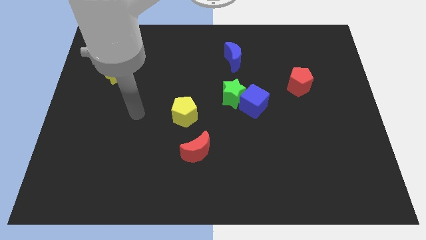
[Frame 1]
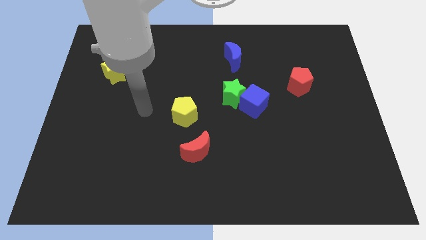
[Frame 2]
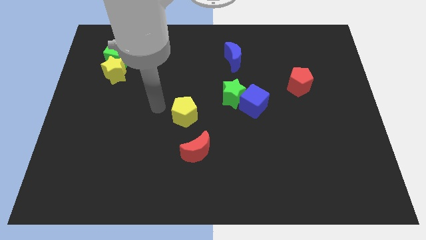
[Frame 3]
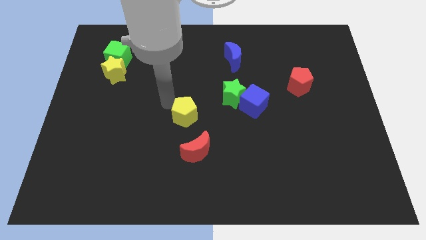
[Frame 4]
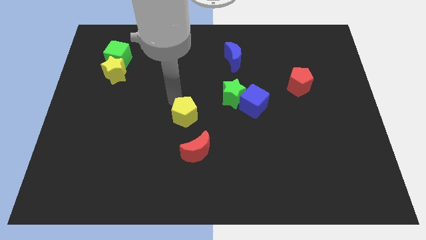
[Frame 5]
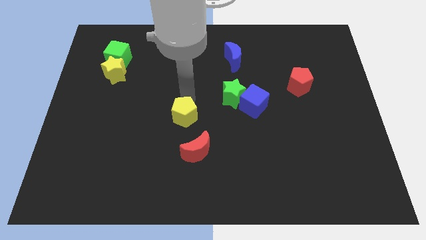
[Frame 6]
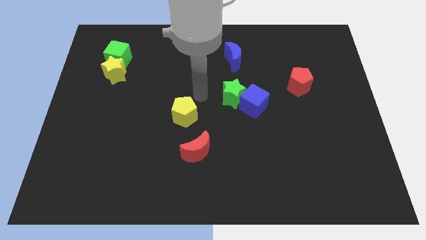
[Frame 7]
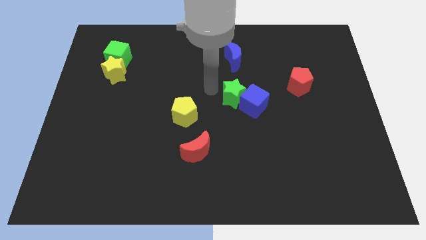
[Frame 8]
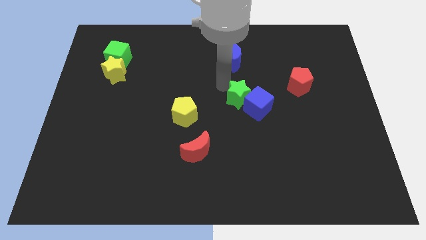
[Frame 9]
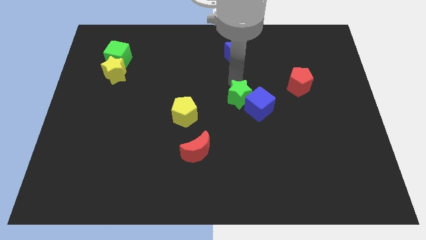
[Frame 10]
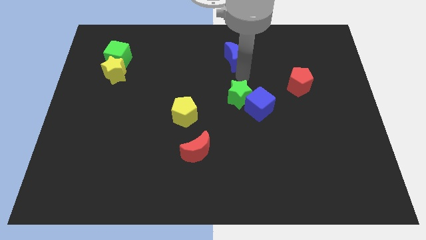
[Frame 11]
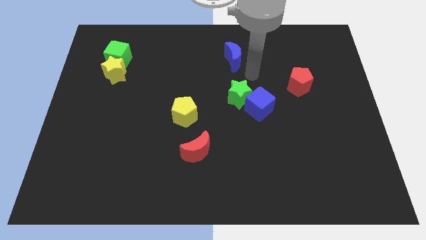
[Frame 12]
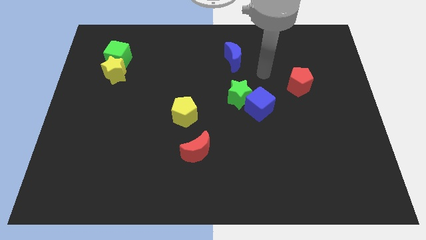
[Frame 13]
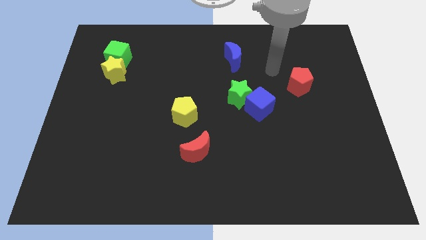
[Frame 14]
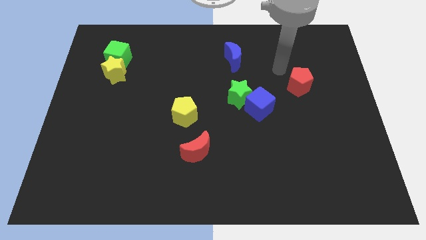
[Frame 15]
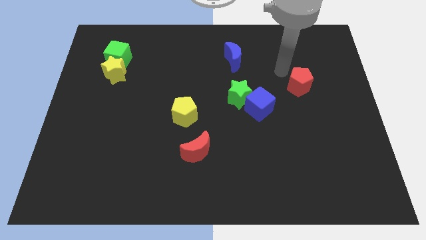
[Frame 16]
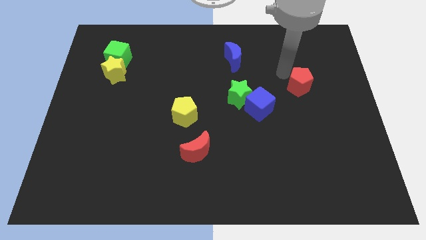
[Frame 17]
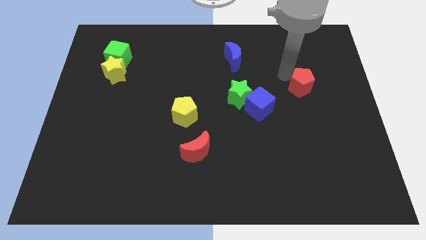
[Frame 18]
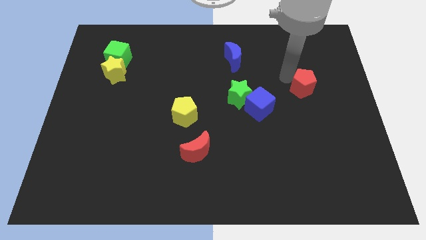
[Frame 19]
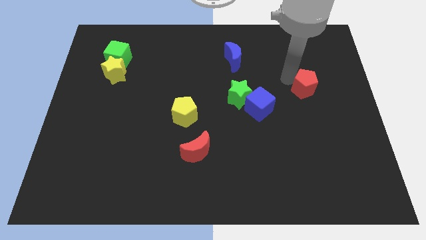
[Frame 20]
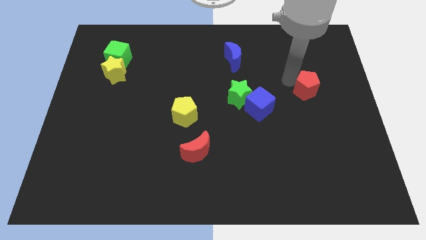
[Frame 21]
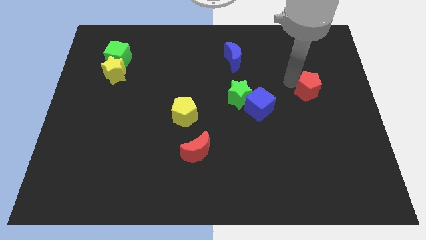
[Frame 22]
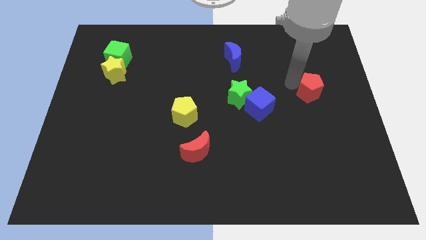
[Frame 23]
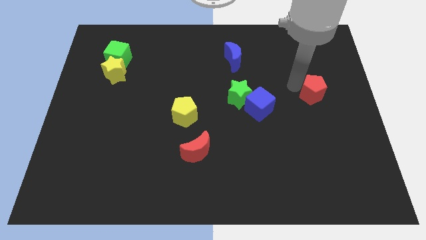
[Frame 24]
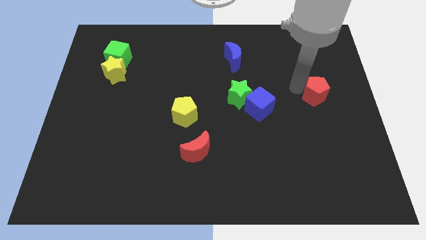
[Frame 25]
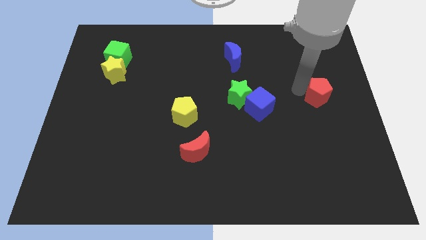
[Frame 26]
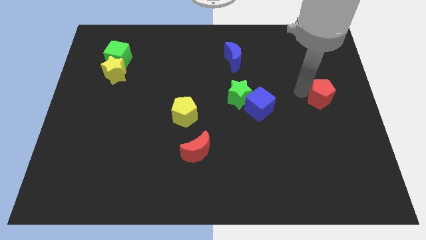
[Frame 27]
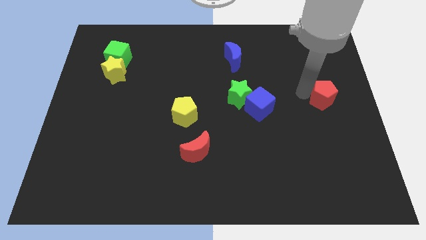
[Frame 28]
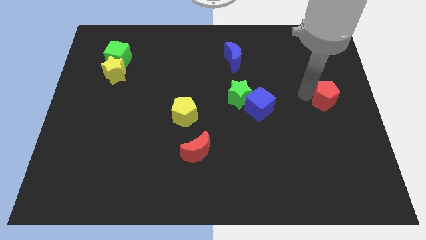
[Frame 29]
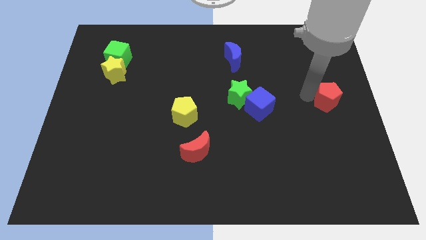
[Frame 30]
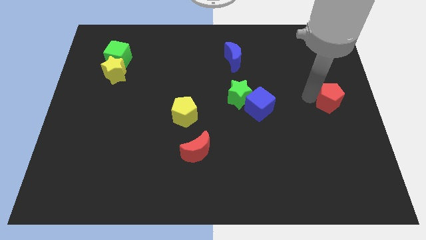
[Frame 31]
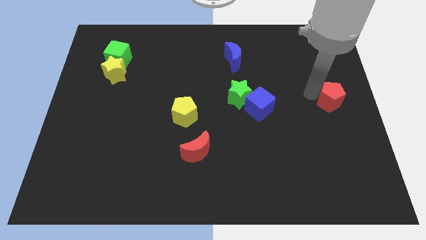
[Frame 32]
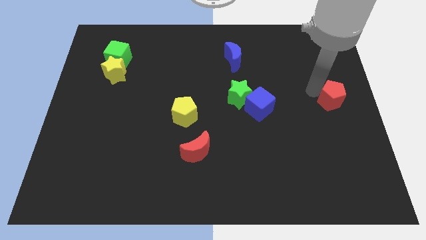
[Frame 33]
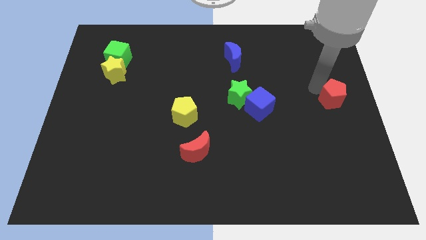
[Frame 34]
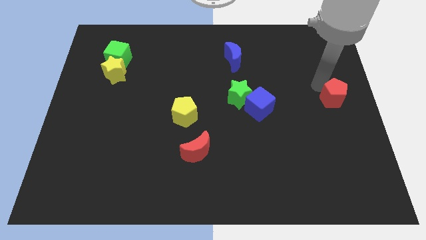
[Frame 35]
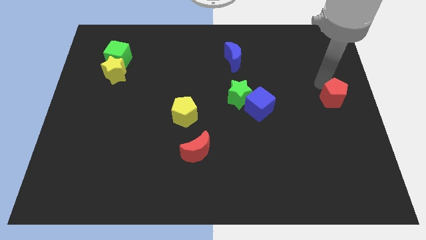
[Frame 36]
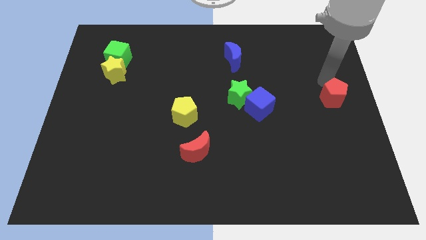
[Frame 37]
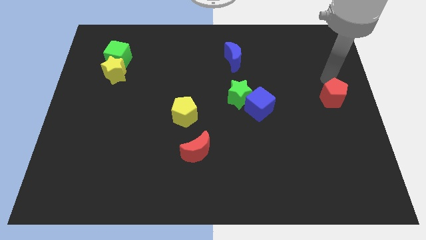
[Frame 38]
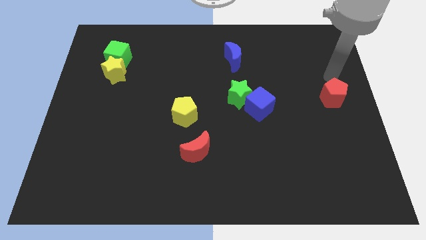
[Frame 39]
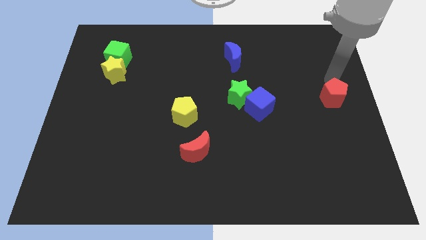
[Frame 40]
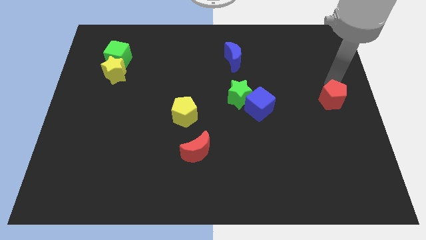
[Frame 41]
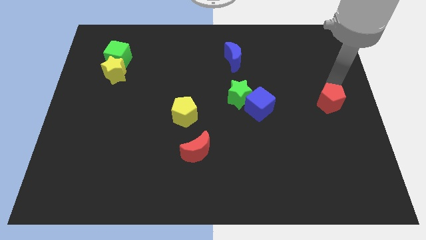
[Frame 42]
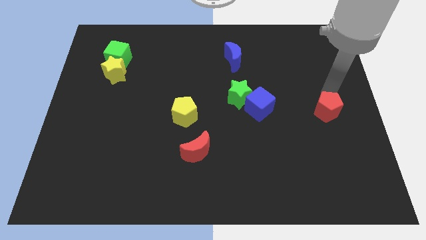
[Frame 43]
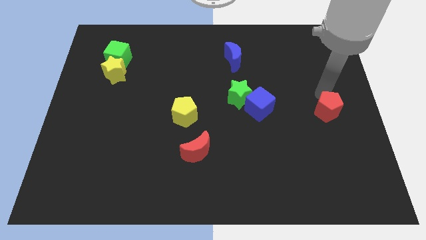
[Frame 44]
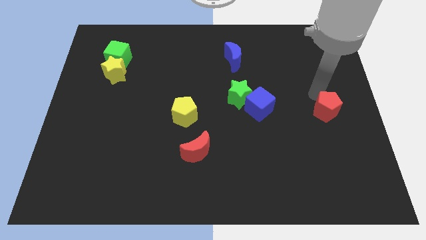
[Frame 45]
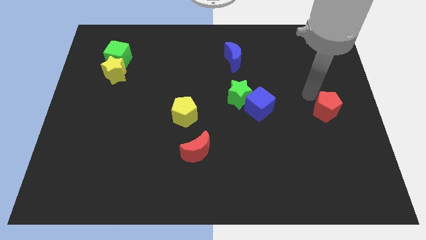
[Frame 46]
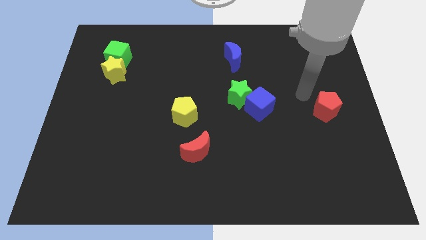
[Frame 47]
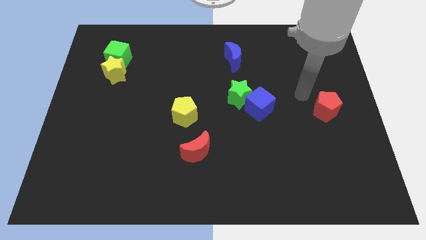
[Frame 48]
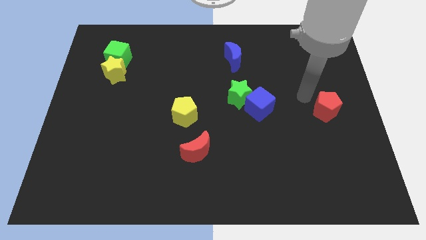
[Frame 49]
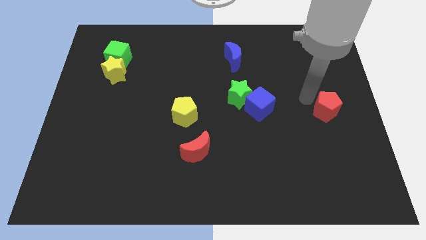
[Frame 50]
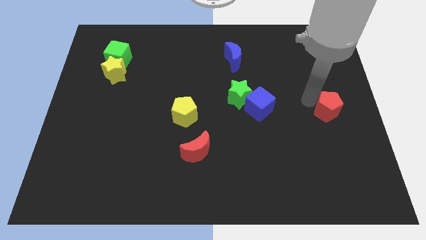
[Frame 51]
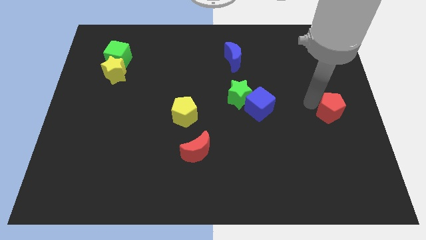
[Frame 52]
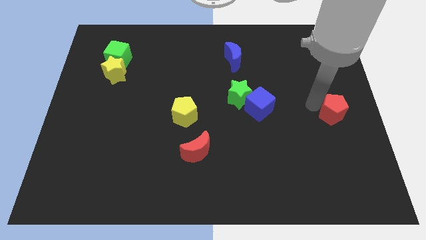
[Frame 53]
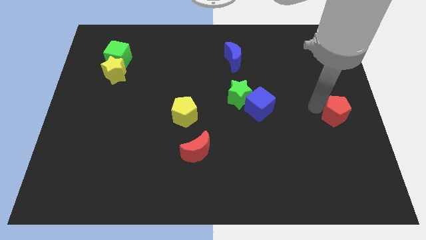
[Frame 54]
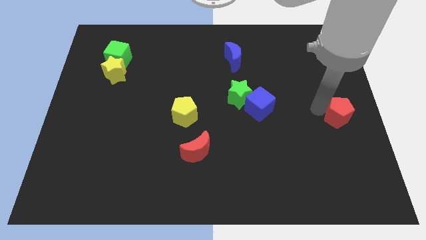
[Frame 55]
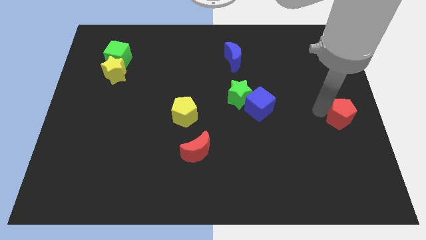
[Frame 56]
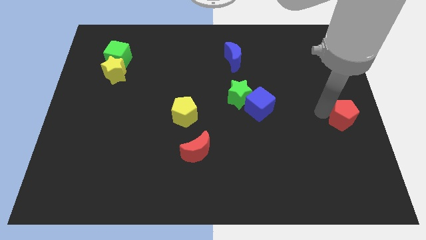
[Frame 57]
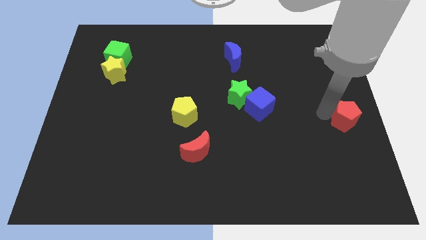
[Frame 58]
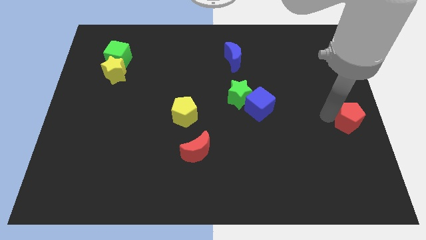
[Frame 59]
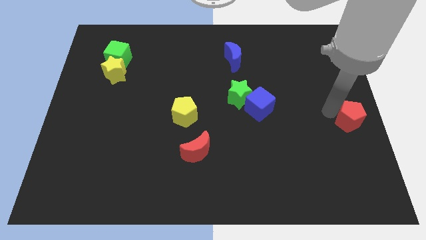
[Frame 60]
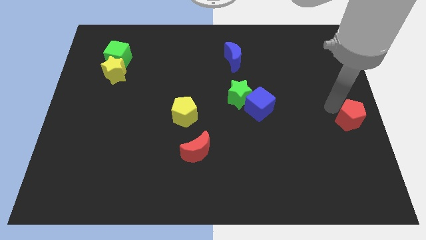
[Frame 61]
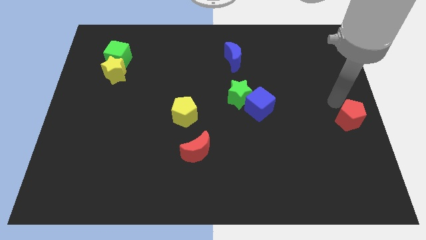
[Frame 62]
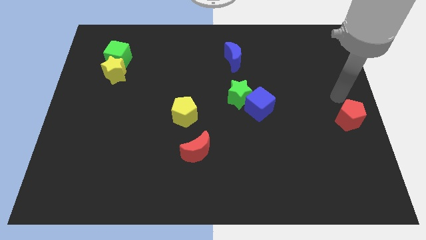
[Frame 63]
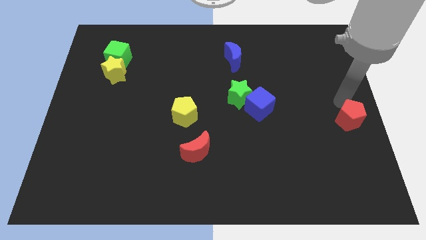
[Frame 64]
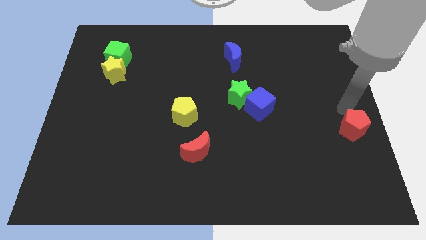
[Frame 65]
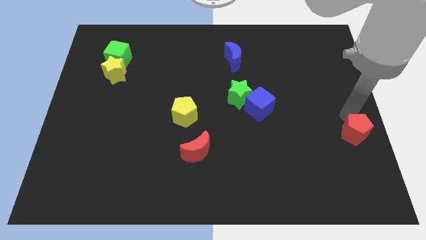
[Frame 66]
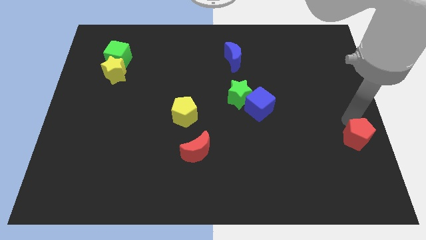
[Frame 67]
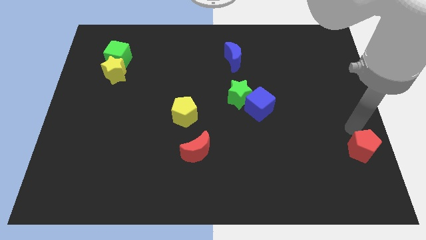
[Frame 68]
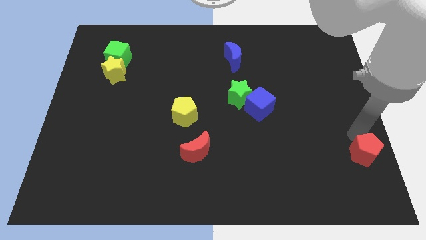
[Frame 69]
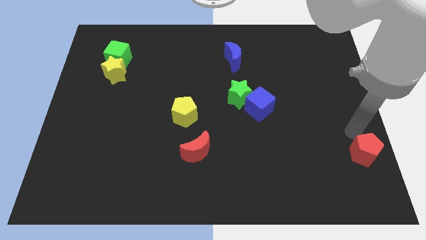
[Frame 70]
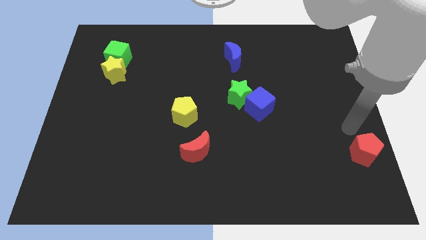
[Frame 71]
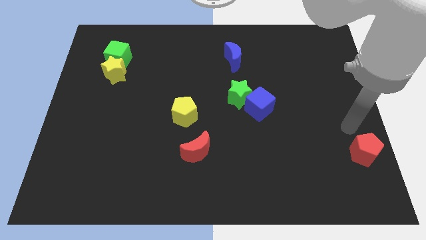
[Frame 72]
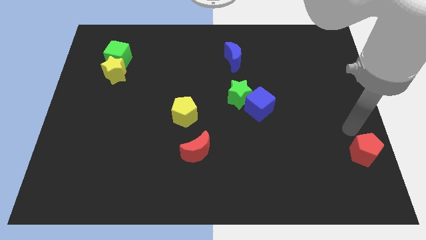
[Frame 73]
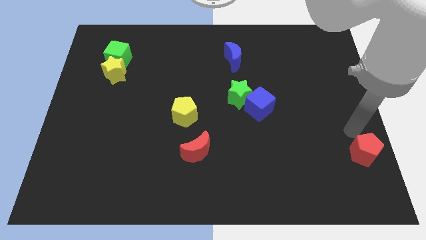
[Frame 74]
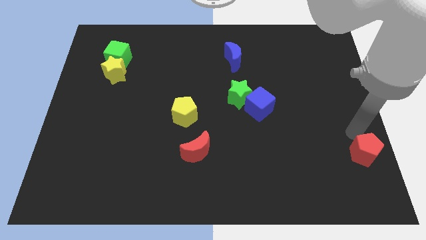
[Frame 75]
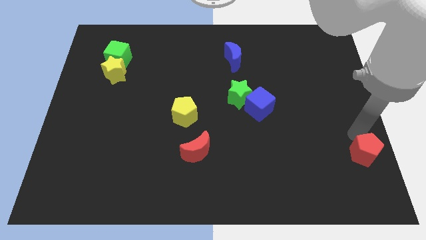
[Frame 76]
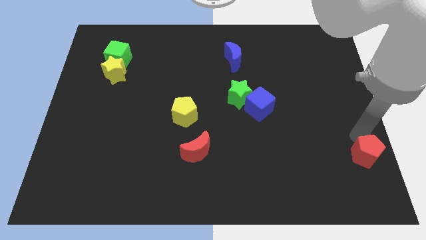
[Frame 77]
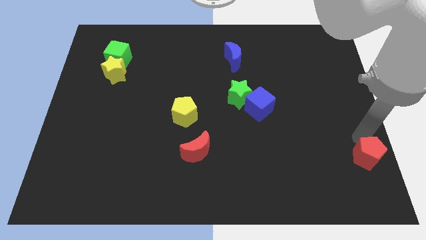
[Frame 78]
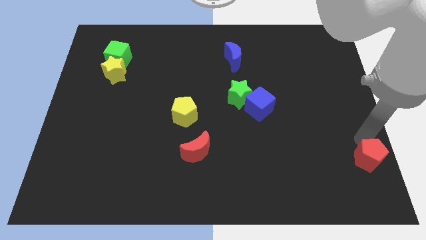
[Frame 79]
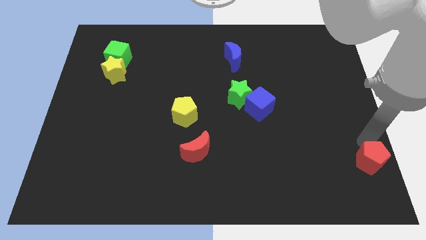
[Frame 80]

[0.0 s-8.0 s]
slide the red pentagon to the lower right corner
